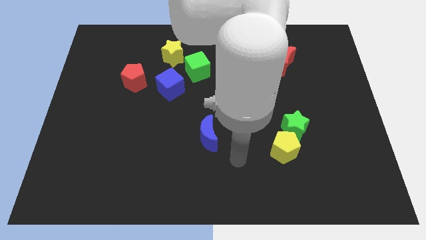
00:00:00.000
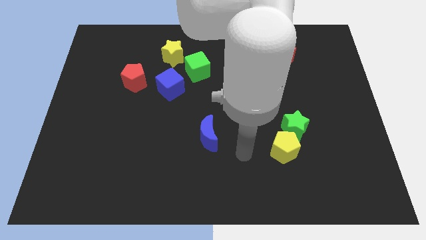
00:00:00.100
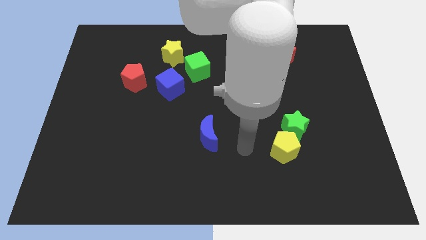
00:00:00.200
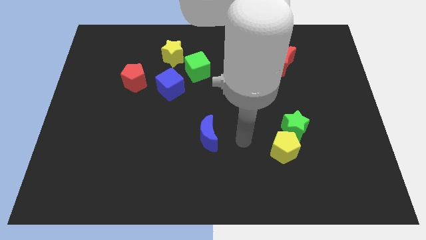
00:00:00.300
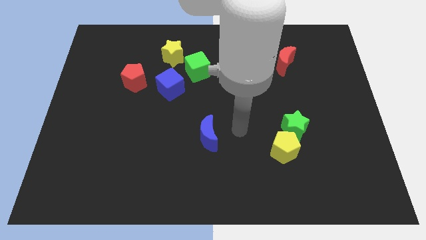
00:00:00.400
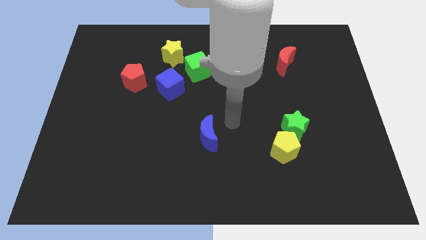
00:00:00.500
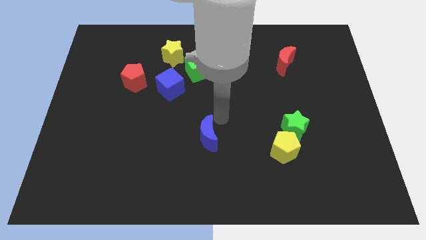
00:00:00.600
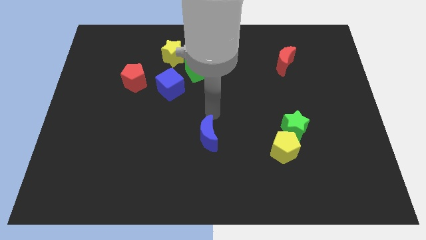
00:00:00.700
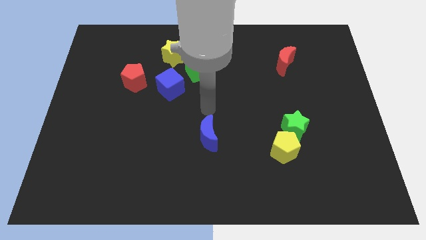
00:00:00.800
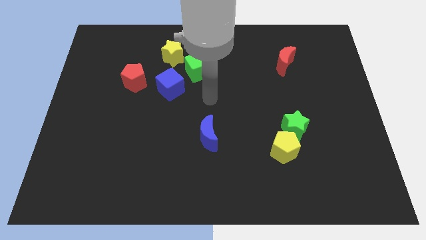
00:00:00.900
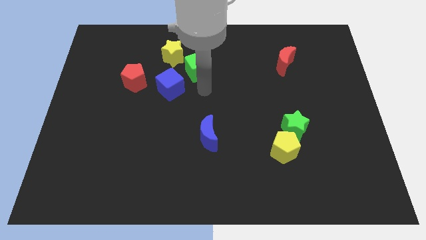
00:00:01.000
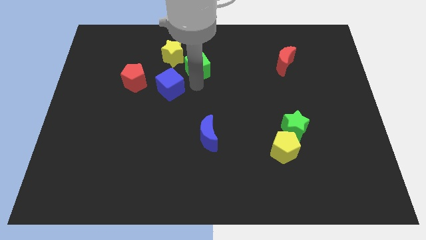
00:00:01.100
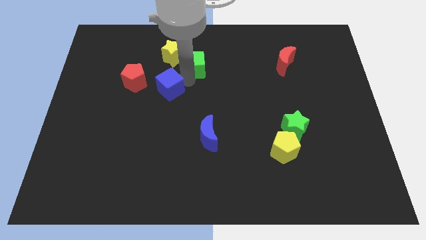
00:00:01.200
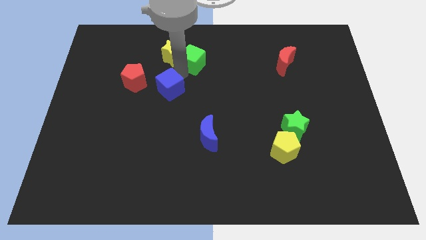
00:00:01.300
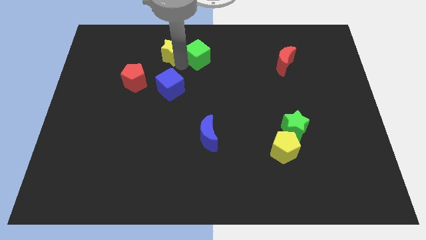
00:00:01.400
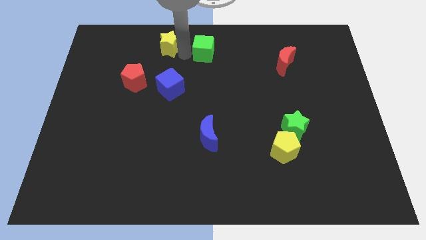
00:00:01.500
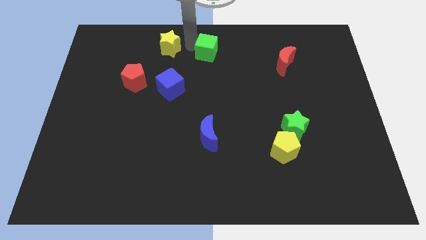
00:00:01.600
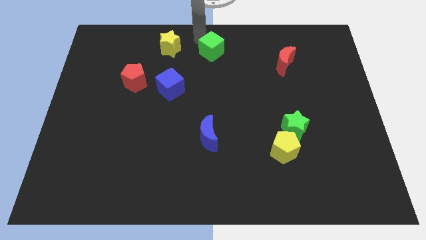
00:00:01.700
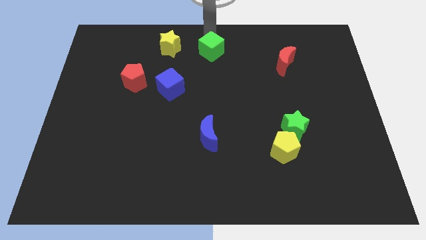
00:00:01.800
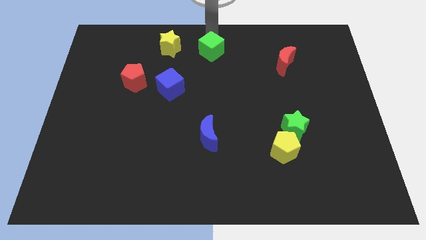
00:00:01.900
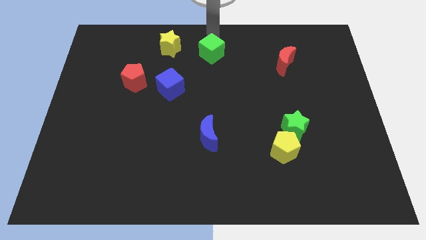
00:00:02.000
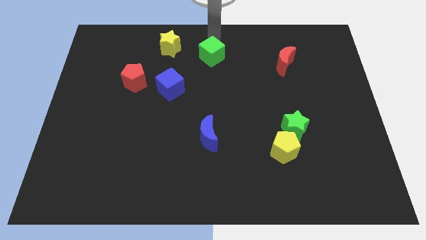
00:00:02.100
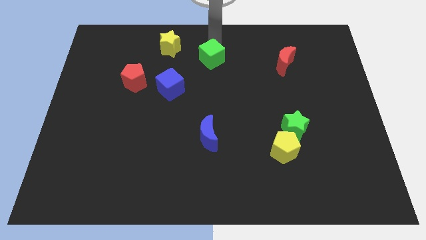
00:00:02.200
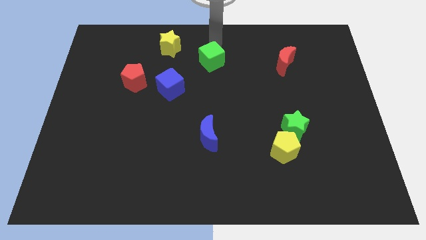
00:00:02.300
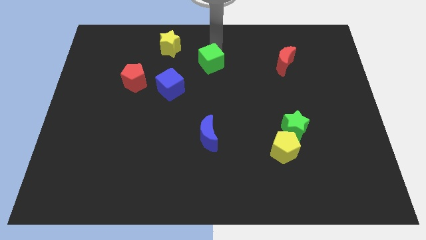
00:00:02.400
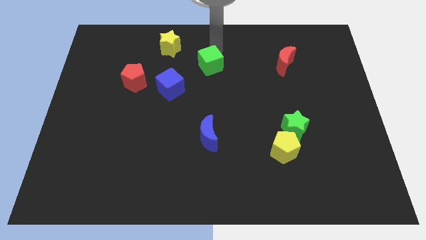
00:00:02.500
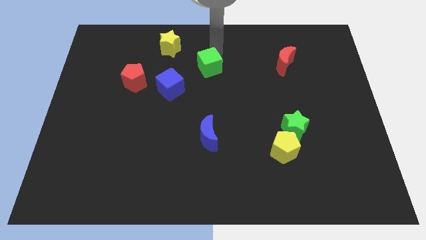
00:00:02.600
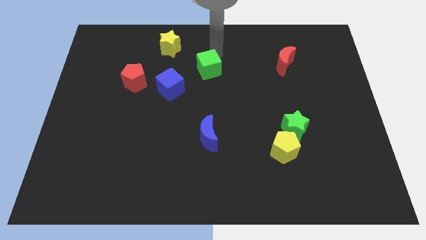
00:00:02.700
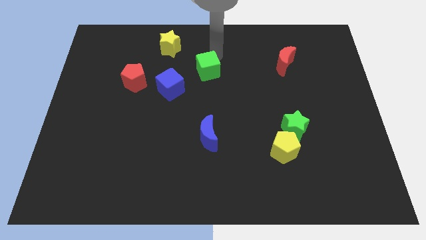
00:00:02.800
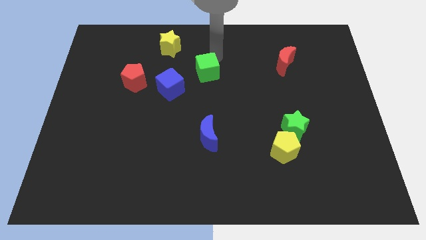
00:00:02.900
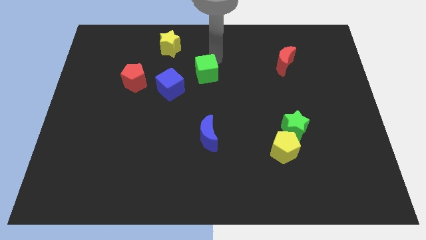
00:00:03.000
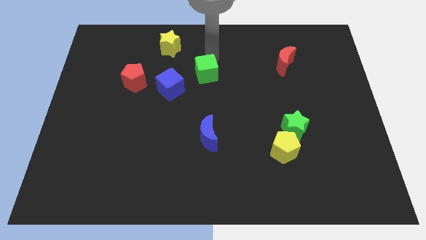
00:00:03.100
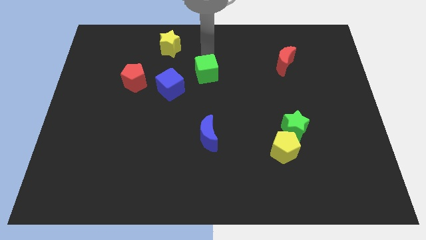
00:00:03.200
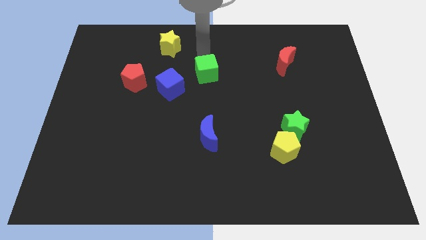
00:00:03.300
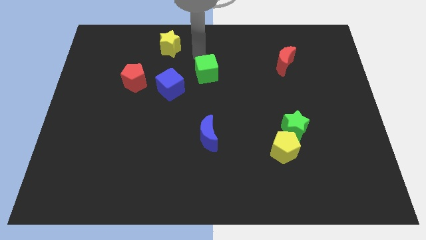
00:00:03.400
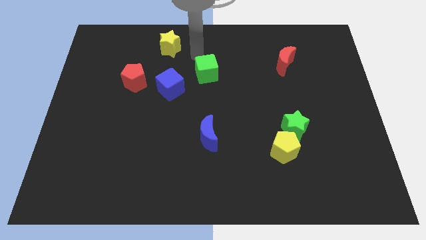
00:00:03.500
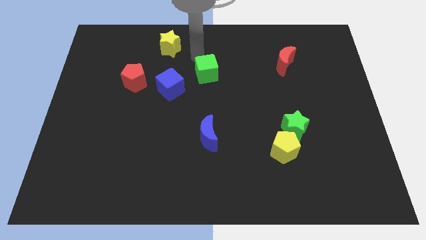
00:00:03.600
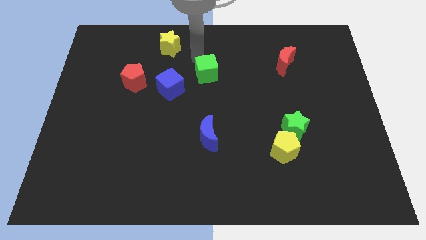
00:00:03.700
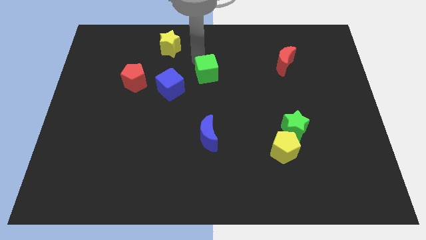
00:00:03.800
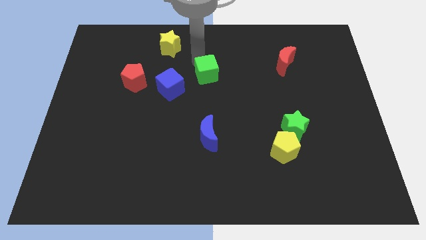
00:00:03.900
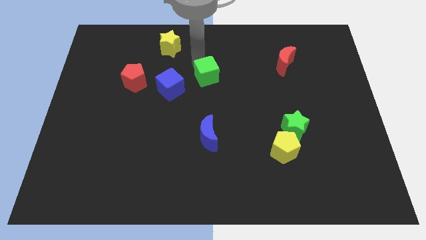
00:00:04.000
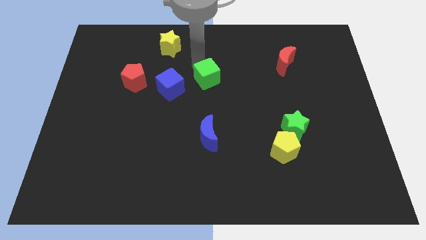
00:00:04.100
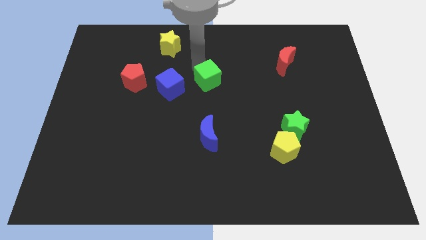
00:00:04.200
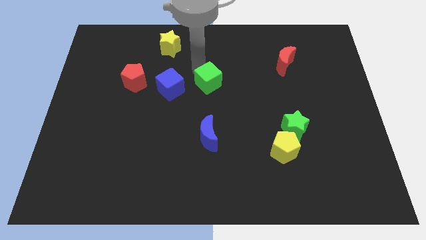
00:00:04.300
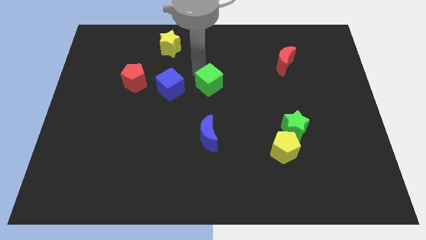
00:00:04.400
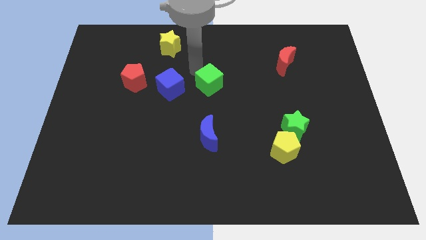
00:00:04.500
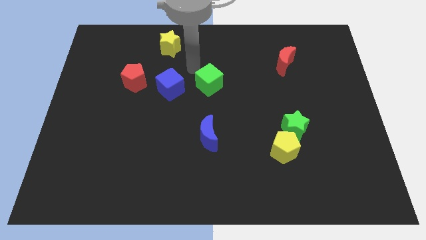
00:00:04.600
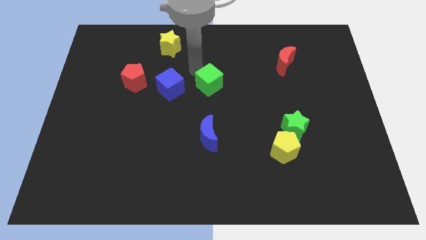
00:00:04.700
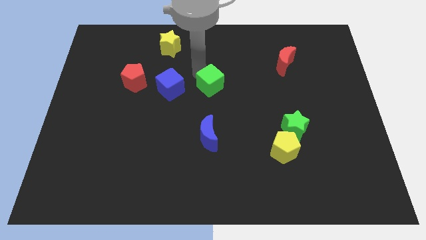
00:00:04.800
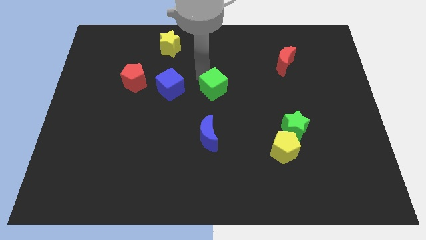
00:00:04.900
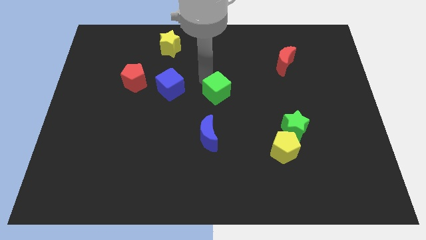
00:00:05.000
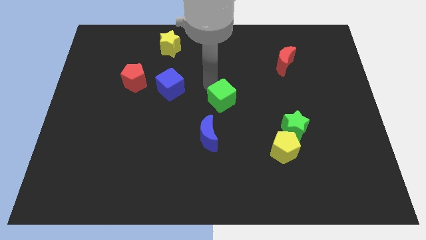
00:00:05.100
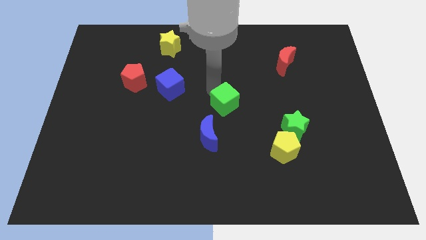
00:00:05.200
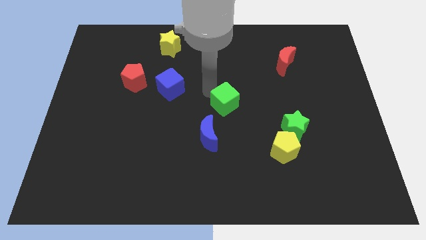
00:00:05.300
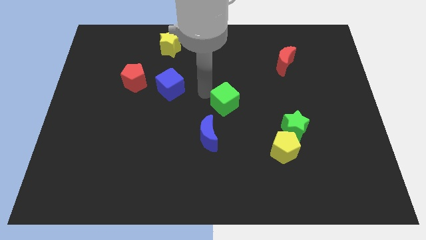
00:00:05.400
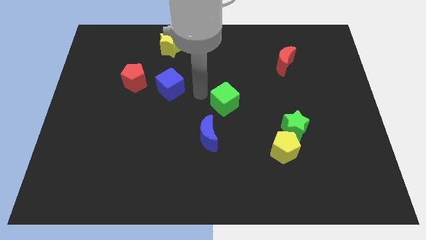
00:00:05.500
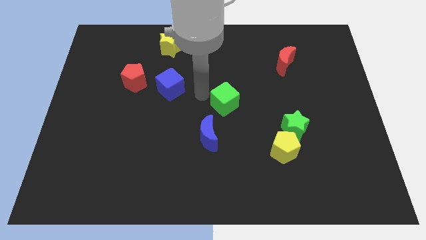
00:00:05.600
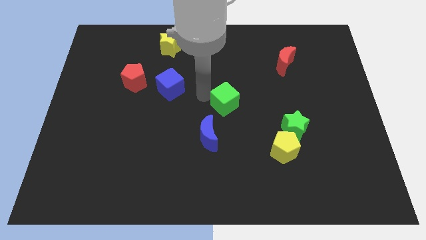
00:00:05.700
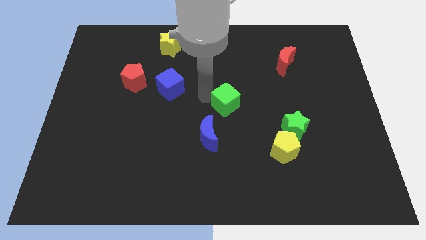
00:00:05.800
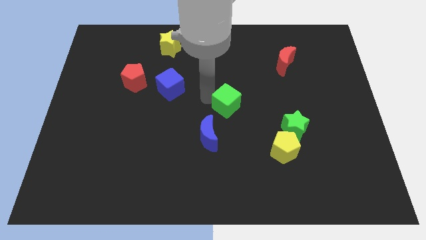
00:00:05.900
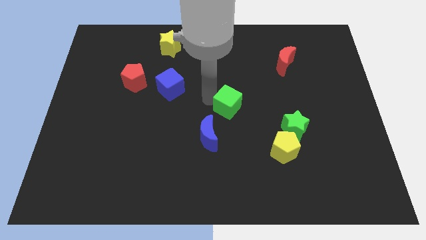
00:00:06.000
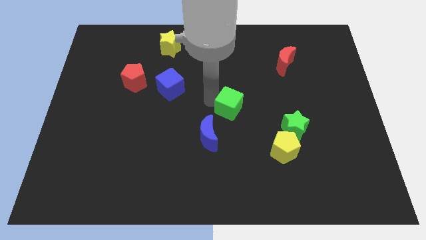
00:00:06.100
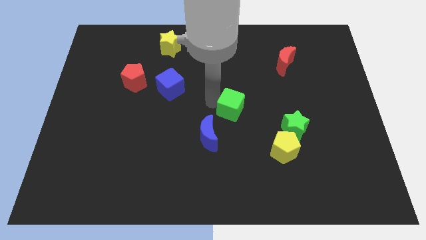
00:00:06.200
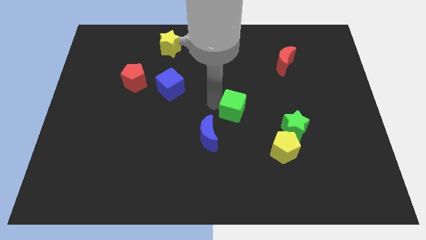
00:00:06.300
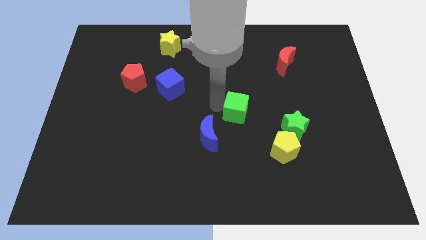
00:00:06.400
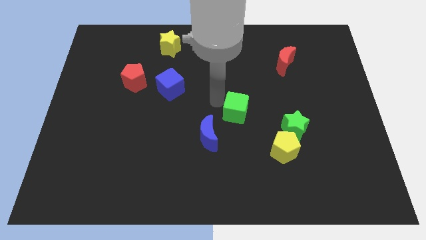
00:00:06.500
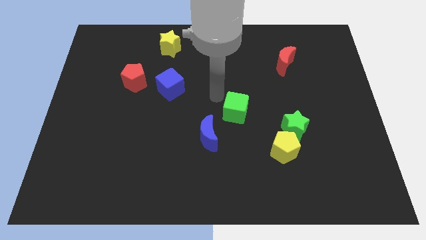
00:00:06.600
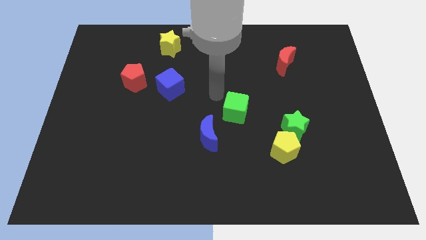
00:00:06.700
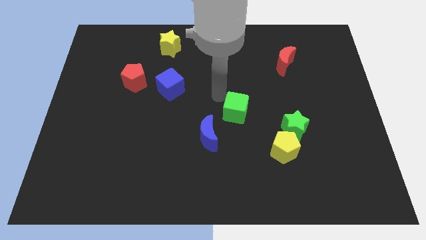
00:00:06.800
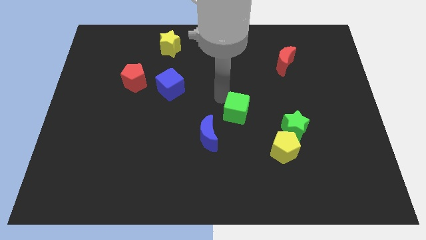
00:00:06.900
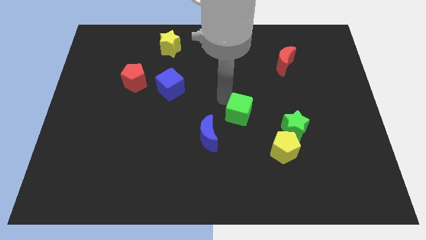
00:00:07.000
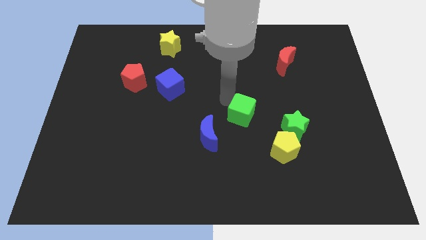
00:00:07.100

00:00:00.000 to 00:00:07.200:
move the green cube diagonally up and to the left of the yellow pentagon

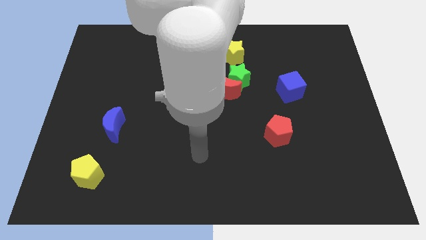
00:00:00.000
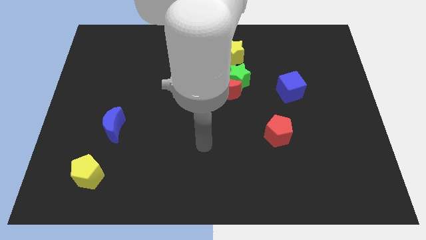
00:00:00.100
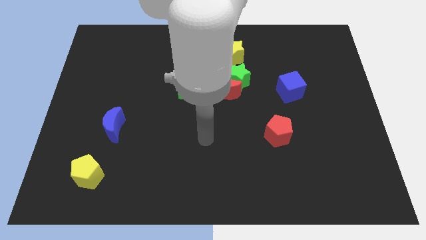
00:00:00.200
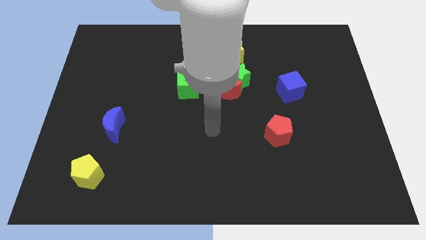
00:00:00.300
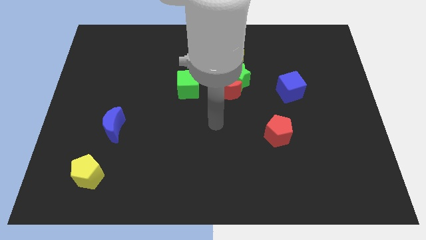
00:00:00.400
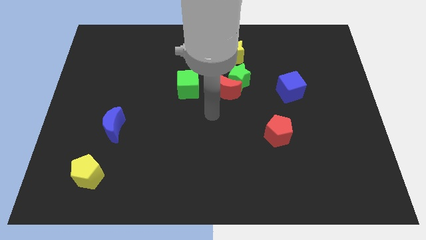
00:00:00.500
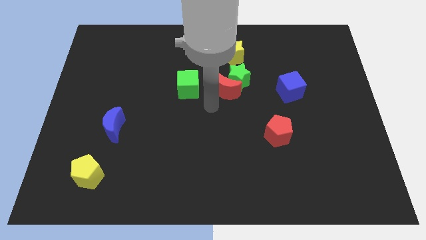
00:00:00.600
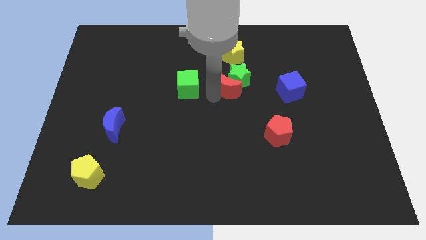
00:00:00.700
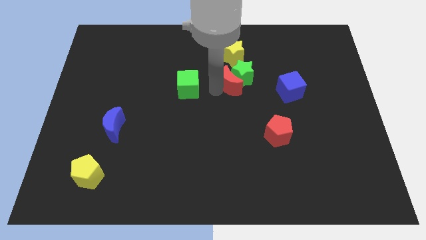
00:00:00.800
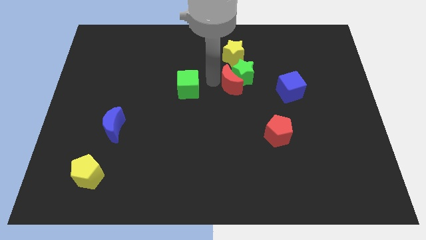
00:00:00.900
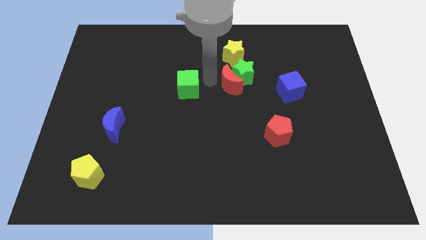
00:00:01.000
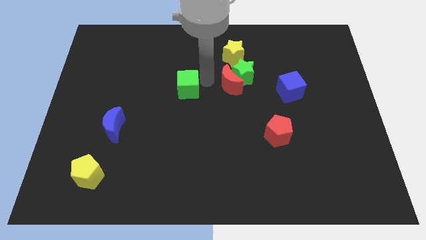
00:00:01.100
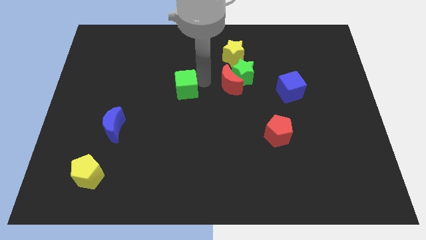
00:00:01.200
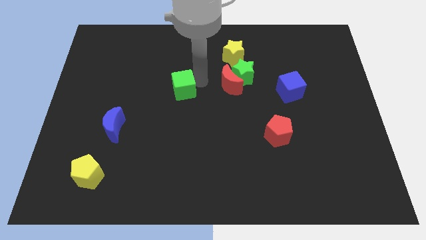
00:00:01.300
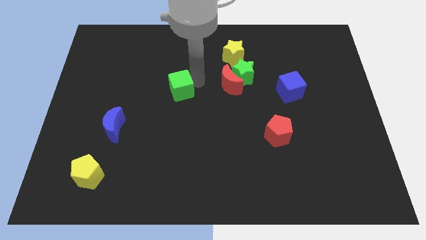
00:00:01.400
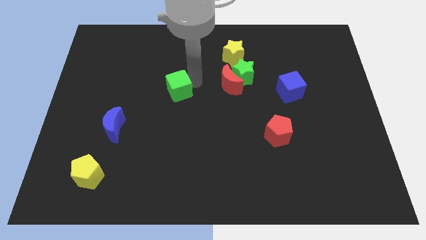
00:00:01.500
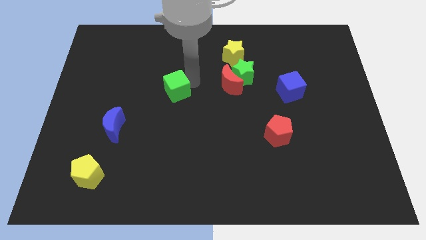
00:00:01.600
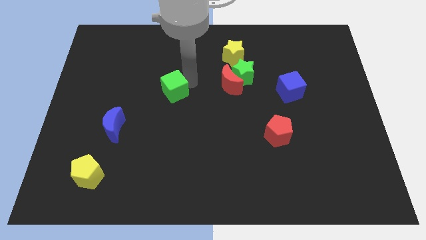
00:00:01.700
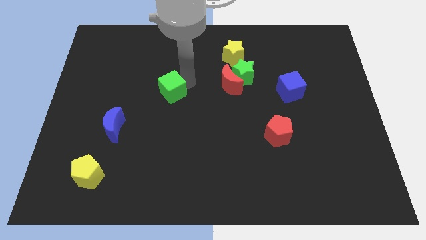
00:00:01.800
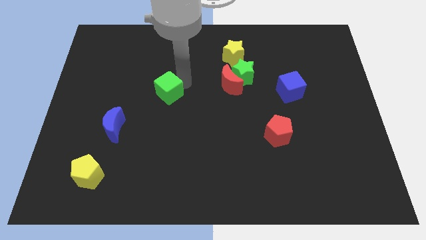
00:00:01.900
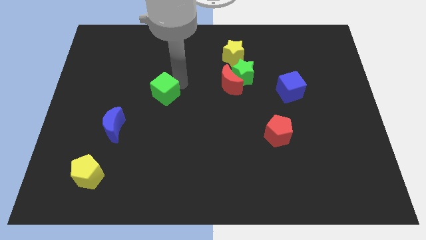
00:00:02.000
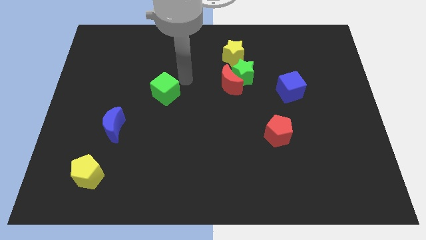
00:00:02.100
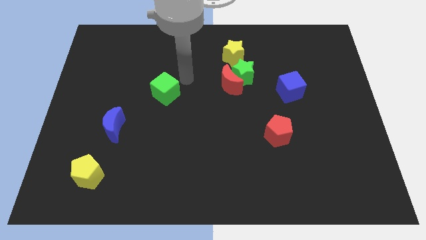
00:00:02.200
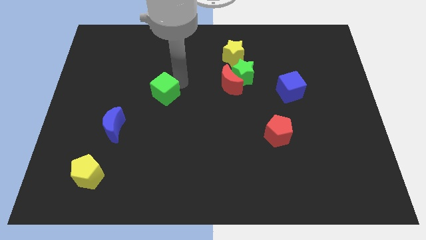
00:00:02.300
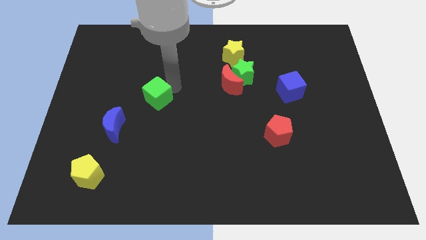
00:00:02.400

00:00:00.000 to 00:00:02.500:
slide the green cube diagonally up and to the right of the blue moon
